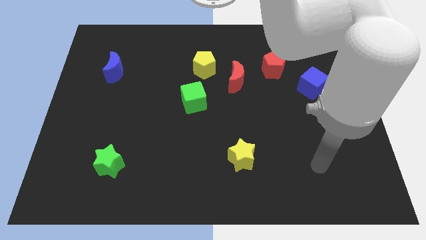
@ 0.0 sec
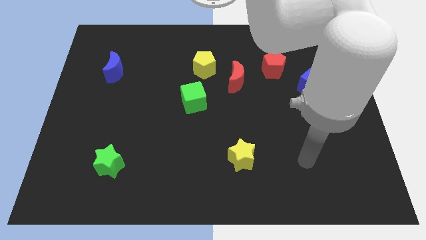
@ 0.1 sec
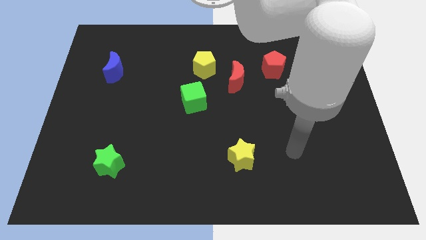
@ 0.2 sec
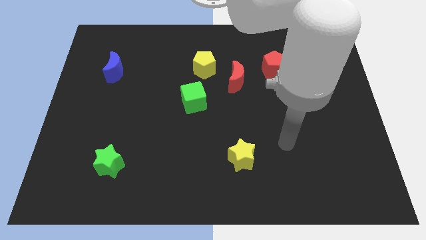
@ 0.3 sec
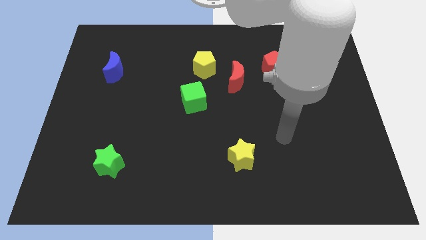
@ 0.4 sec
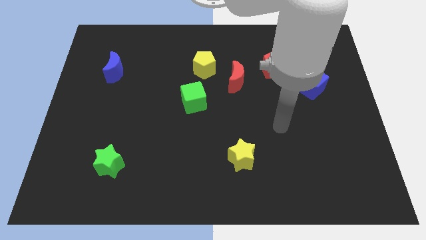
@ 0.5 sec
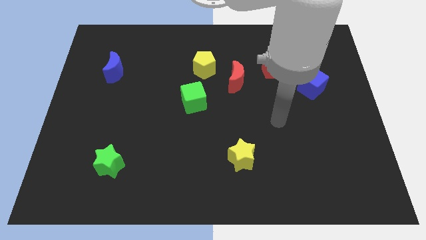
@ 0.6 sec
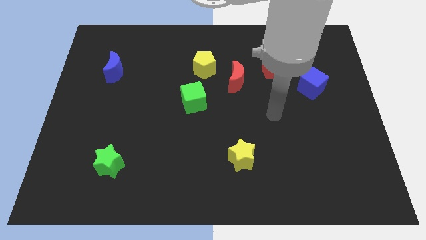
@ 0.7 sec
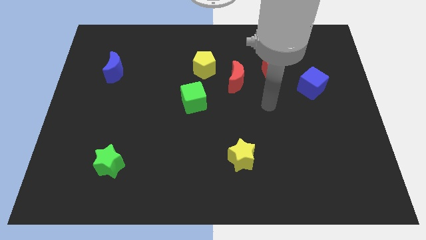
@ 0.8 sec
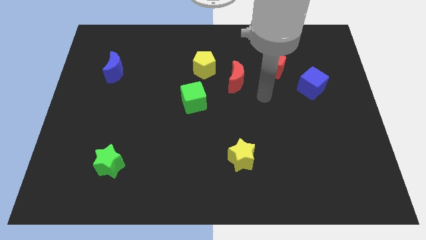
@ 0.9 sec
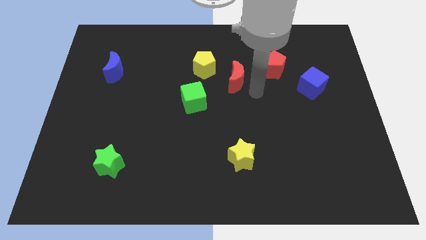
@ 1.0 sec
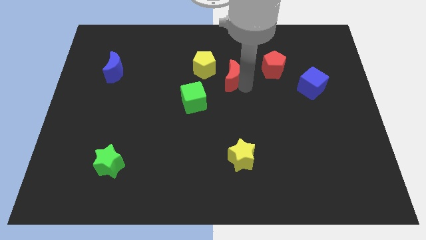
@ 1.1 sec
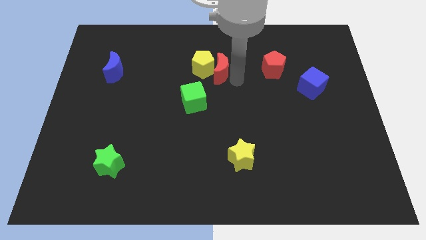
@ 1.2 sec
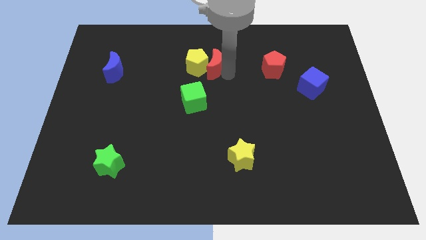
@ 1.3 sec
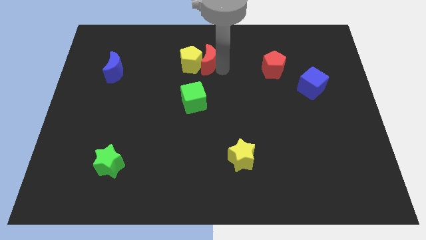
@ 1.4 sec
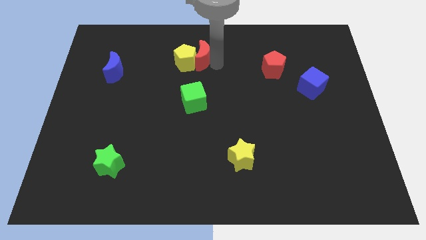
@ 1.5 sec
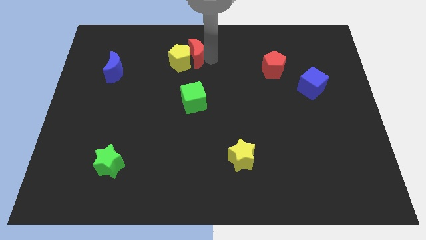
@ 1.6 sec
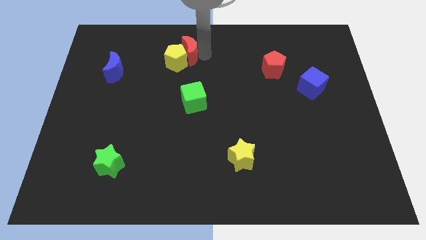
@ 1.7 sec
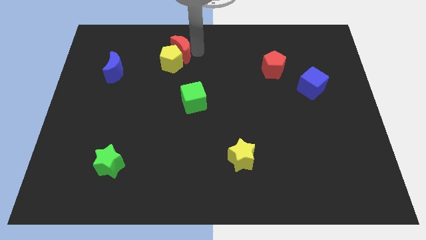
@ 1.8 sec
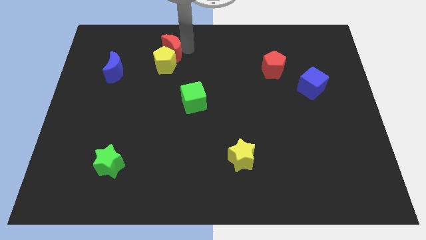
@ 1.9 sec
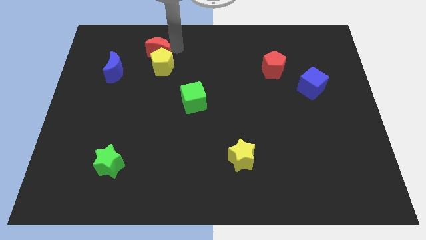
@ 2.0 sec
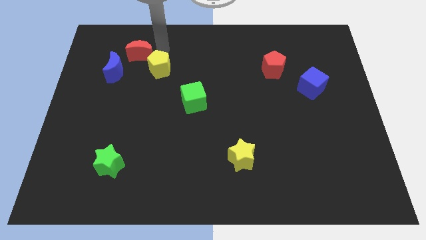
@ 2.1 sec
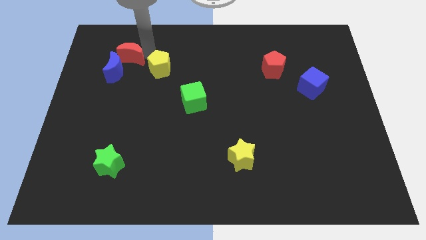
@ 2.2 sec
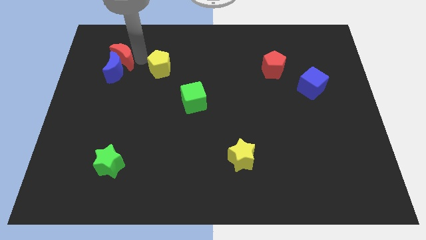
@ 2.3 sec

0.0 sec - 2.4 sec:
pull the yellow pentagon apart from the red moon

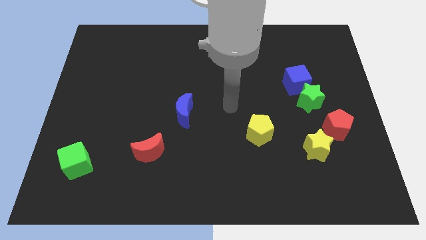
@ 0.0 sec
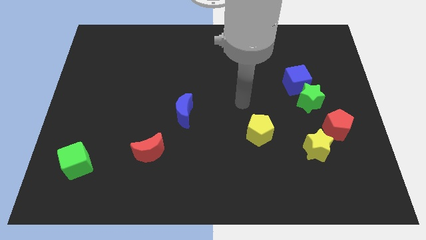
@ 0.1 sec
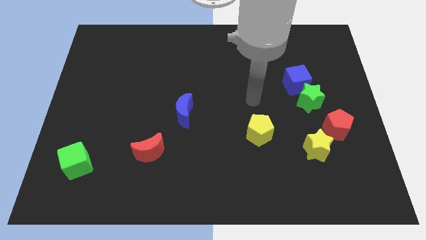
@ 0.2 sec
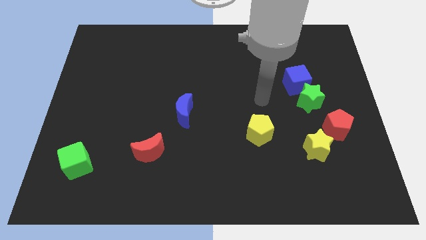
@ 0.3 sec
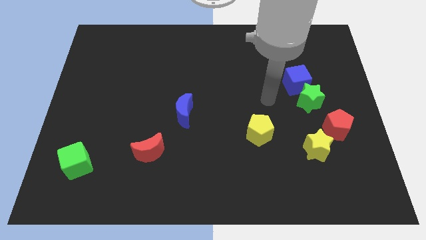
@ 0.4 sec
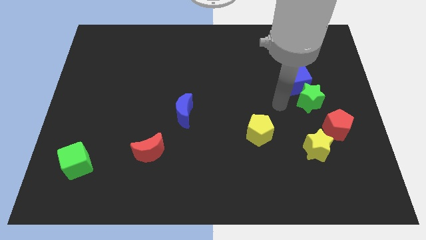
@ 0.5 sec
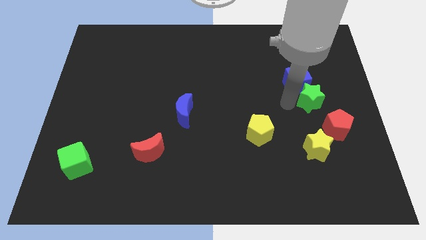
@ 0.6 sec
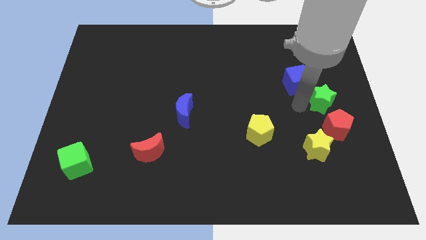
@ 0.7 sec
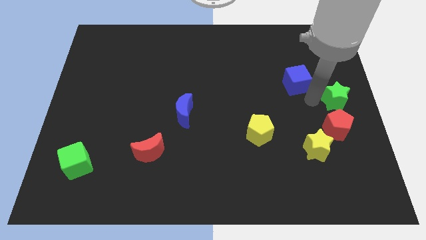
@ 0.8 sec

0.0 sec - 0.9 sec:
pull the blue cube apart from the green star

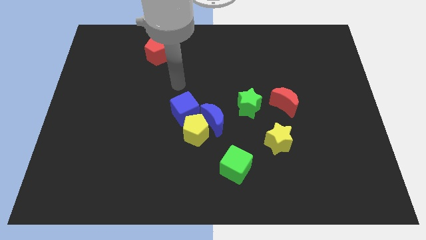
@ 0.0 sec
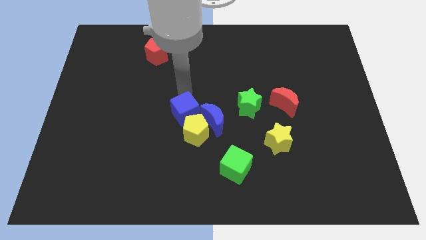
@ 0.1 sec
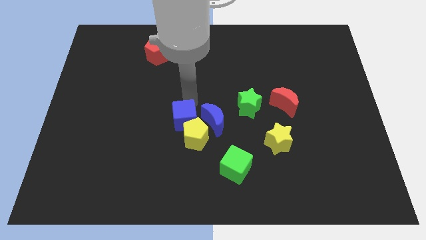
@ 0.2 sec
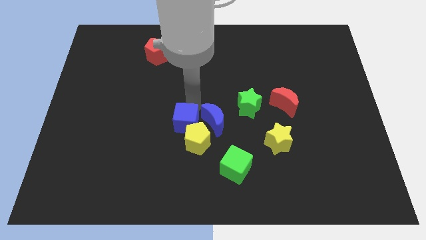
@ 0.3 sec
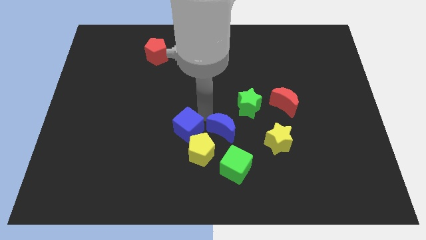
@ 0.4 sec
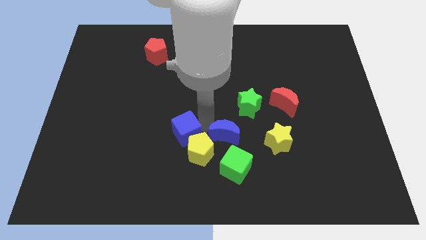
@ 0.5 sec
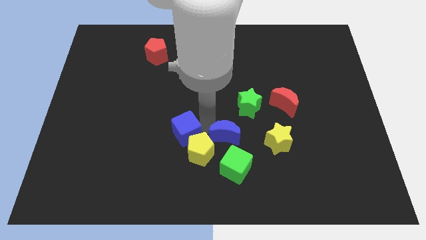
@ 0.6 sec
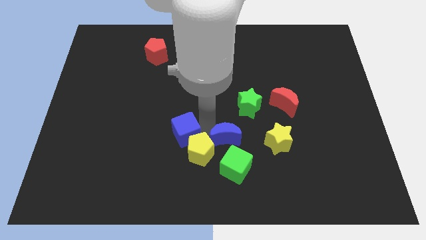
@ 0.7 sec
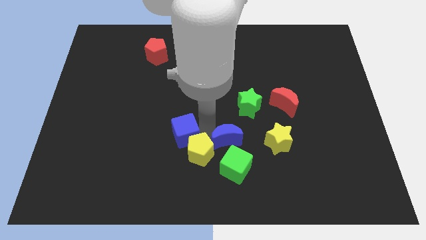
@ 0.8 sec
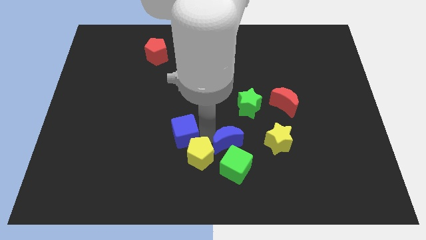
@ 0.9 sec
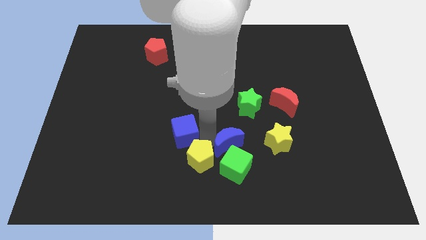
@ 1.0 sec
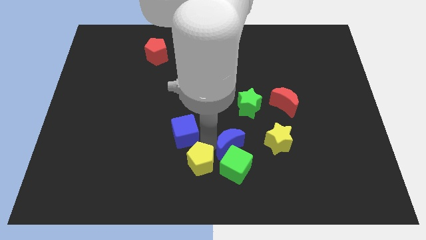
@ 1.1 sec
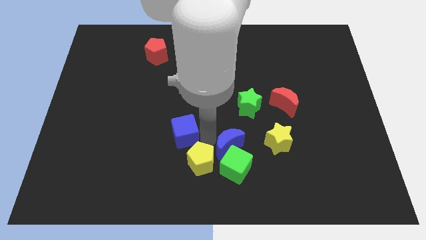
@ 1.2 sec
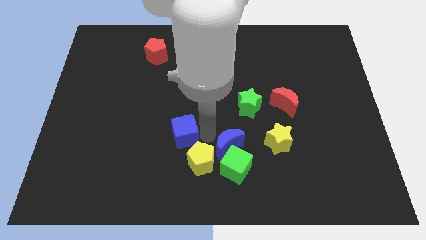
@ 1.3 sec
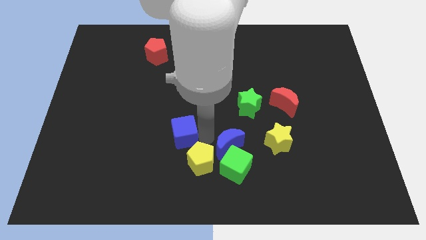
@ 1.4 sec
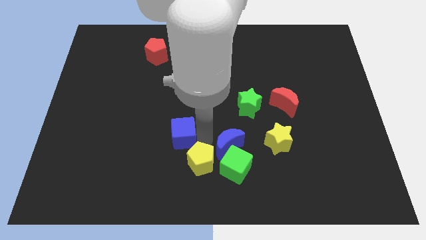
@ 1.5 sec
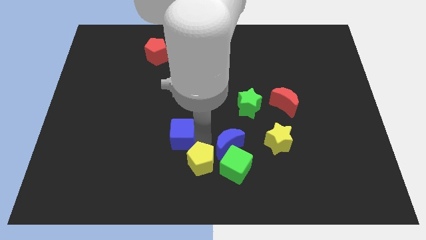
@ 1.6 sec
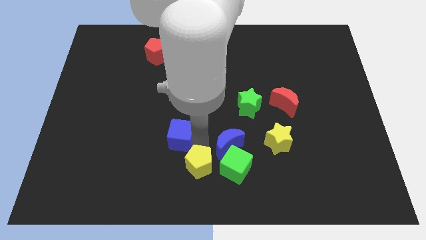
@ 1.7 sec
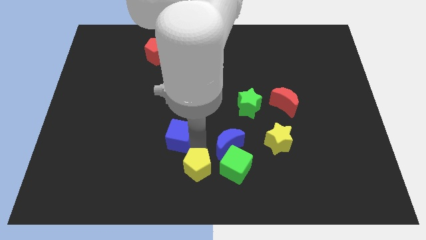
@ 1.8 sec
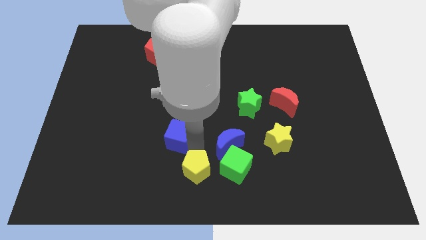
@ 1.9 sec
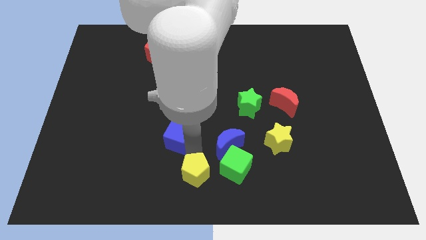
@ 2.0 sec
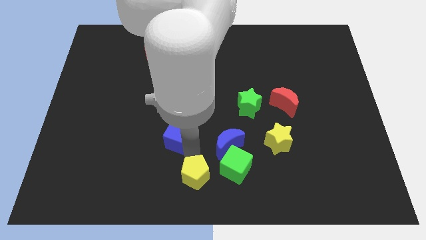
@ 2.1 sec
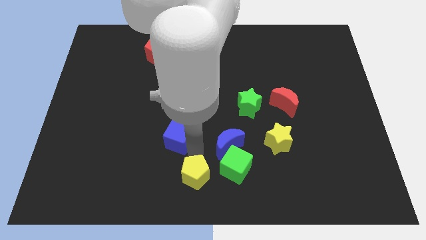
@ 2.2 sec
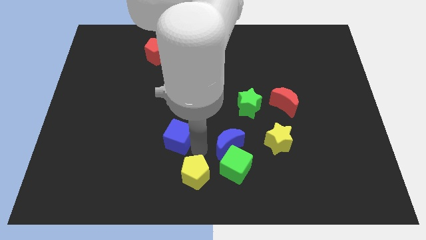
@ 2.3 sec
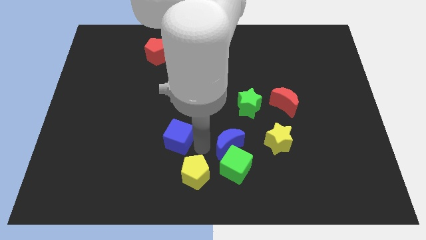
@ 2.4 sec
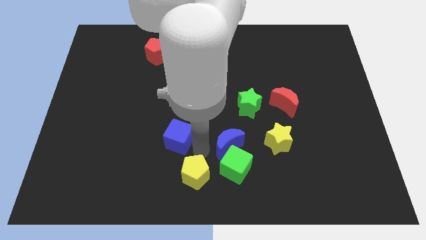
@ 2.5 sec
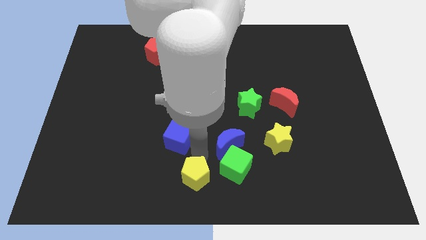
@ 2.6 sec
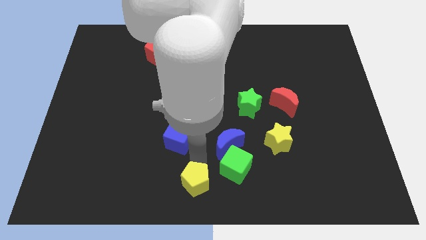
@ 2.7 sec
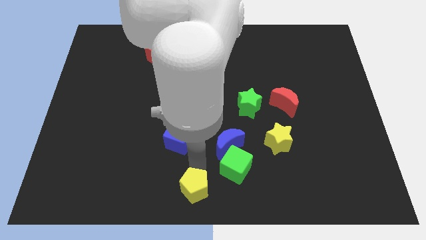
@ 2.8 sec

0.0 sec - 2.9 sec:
separate the yellow pentagon from the blue moon and blue cube

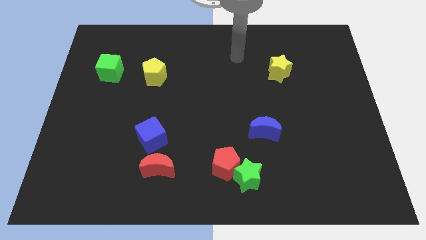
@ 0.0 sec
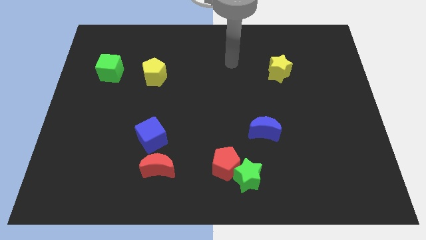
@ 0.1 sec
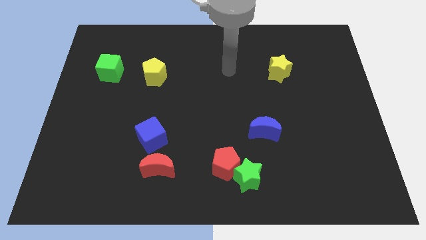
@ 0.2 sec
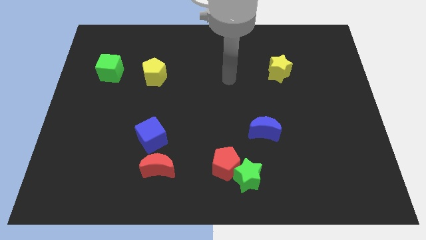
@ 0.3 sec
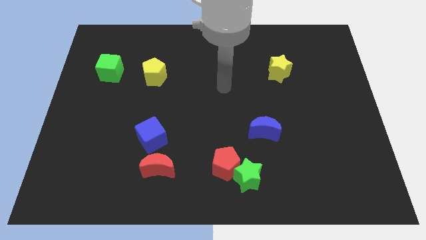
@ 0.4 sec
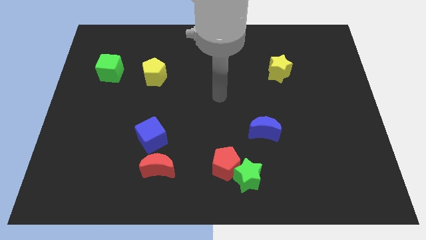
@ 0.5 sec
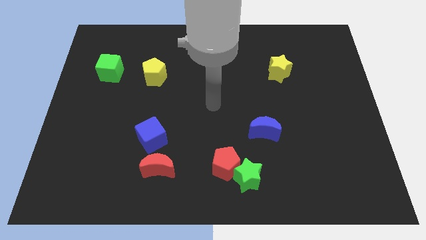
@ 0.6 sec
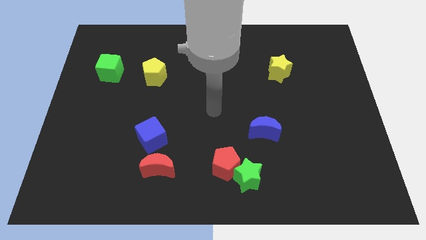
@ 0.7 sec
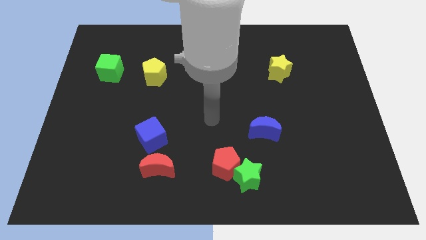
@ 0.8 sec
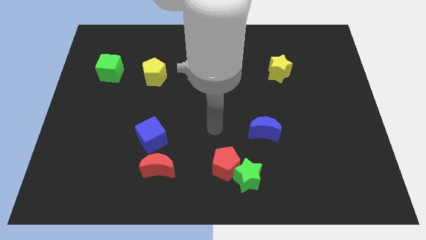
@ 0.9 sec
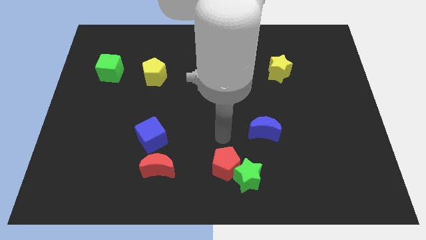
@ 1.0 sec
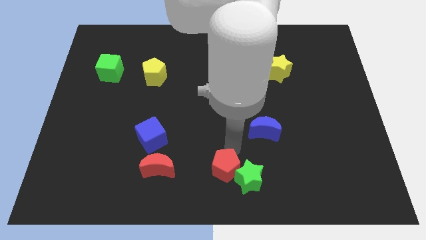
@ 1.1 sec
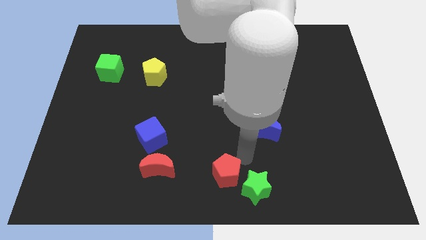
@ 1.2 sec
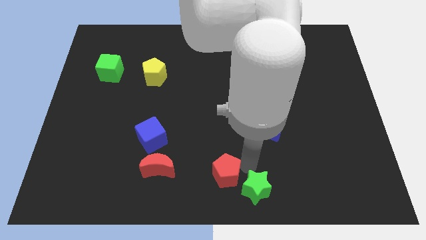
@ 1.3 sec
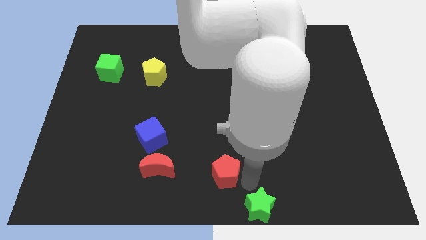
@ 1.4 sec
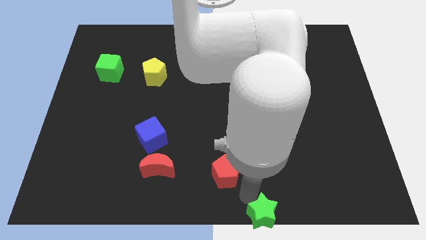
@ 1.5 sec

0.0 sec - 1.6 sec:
separate the red pentagon from the green star

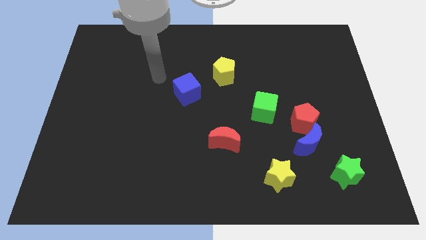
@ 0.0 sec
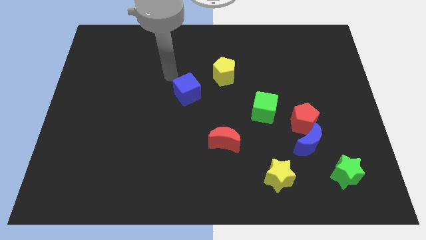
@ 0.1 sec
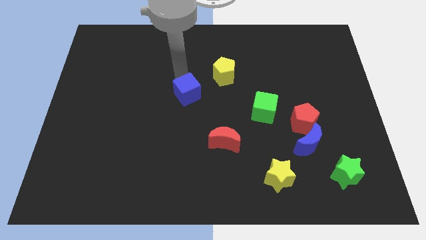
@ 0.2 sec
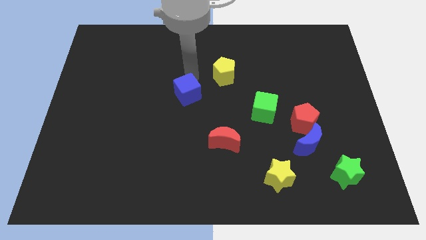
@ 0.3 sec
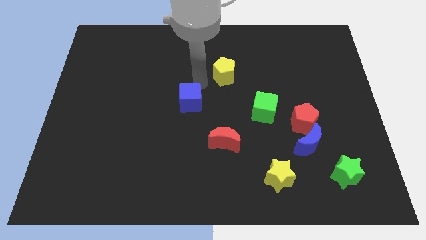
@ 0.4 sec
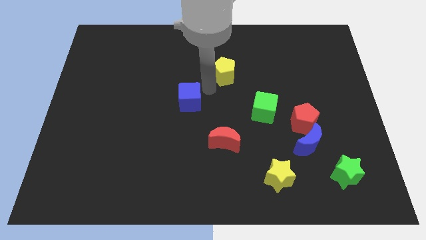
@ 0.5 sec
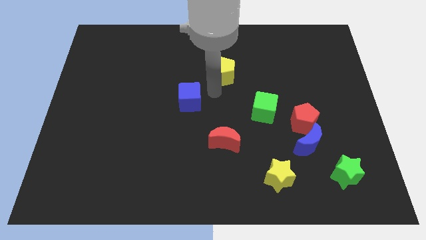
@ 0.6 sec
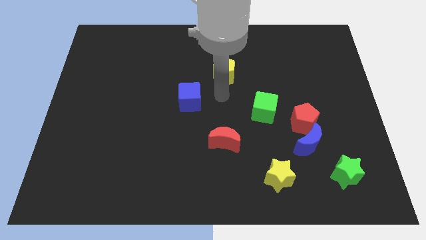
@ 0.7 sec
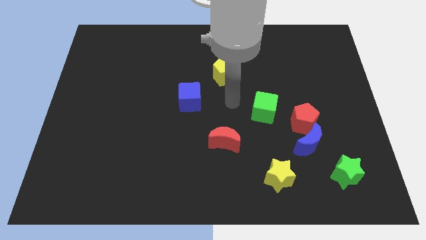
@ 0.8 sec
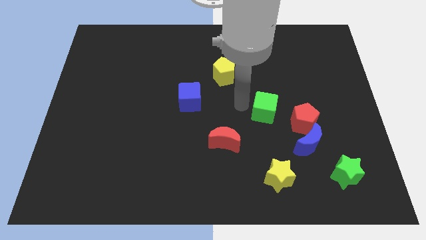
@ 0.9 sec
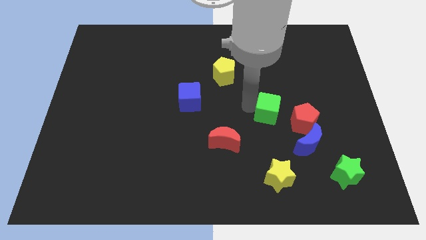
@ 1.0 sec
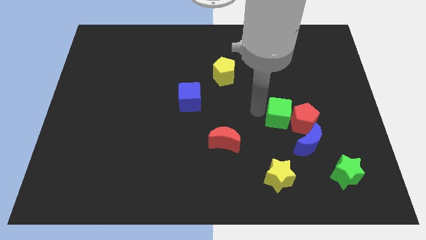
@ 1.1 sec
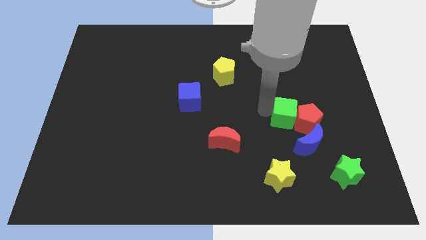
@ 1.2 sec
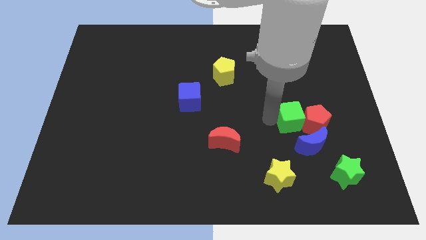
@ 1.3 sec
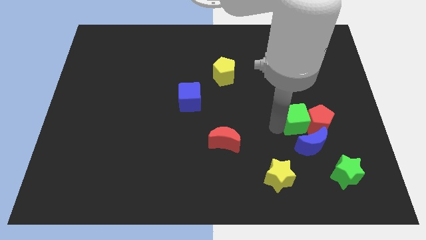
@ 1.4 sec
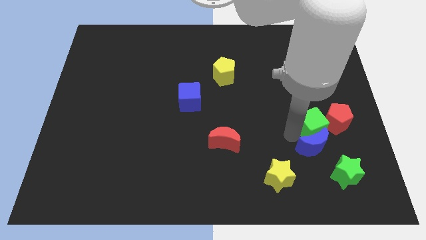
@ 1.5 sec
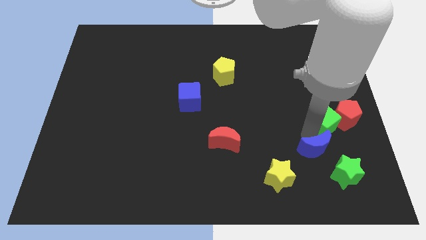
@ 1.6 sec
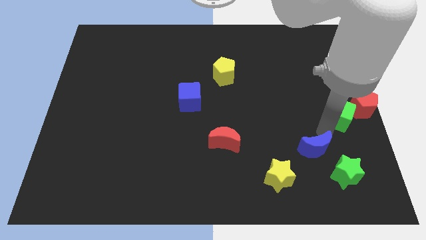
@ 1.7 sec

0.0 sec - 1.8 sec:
separate the red pentagon from the blue moon and green cube
